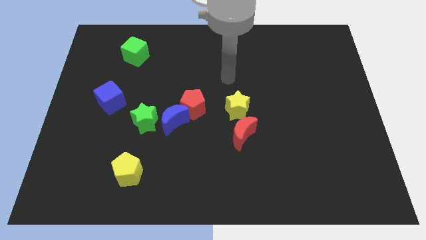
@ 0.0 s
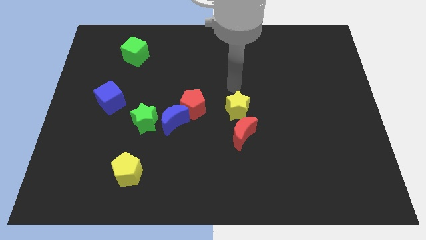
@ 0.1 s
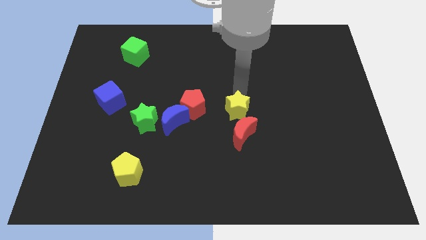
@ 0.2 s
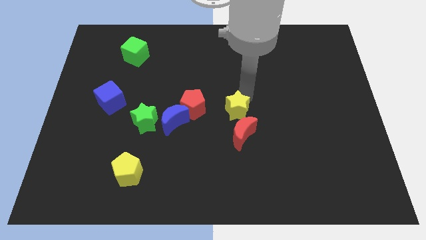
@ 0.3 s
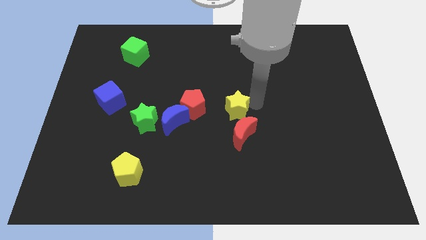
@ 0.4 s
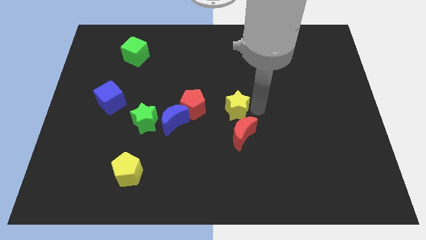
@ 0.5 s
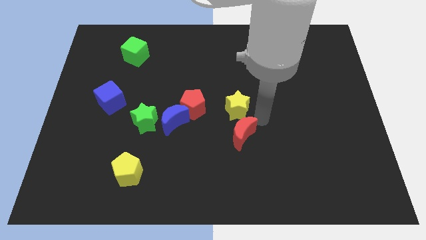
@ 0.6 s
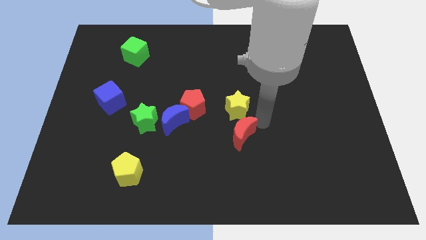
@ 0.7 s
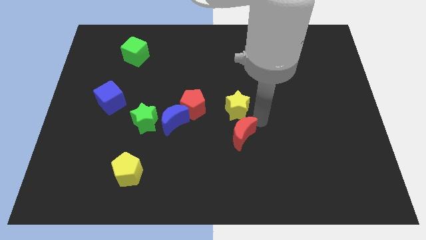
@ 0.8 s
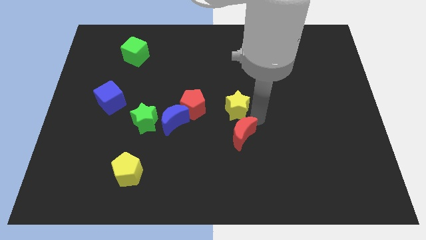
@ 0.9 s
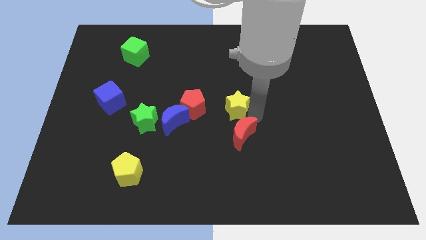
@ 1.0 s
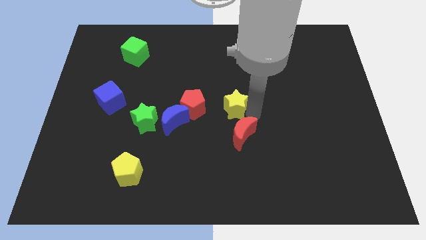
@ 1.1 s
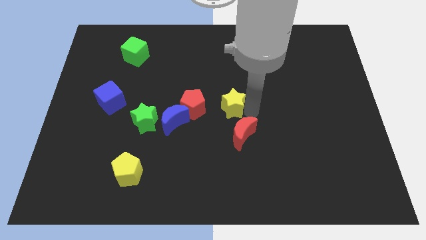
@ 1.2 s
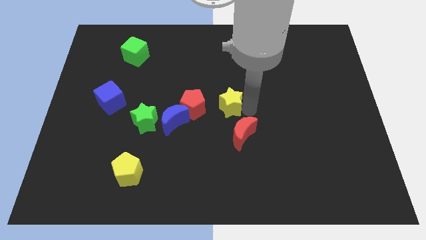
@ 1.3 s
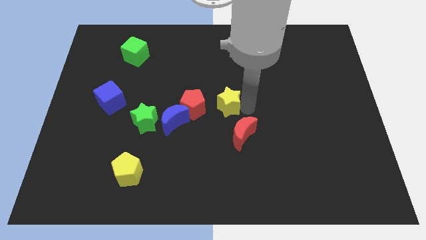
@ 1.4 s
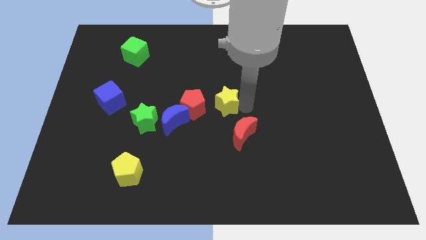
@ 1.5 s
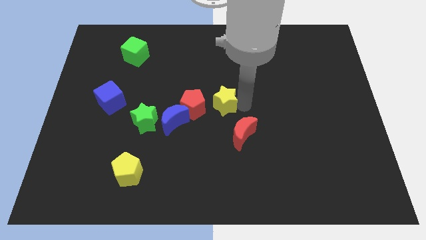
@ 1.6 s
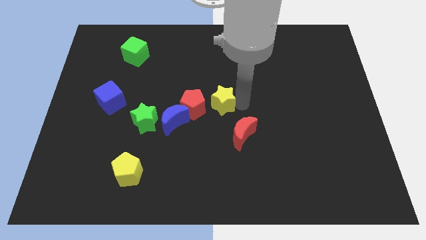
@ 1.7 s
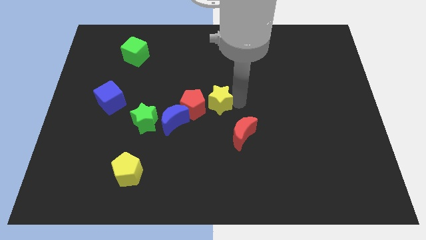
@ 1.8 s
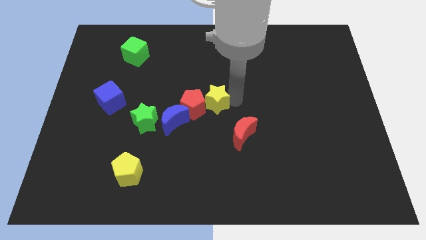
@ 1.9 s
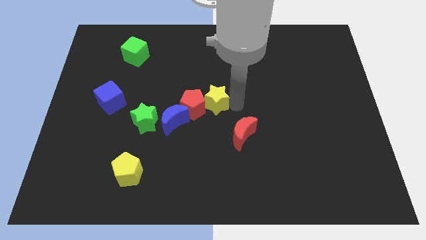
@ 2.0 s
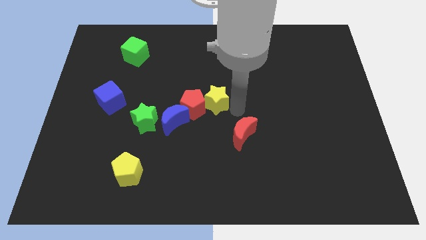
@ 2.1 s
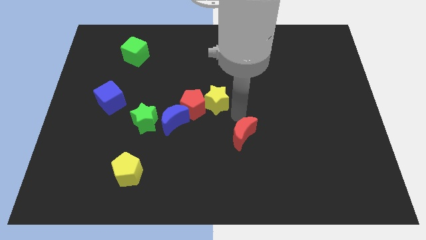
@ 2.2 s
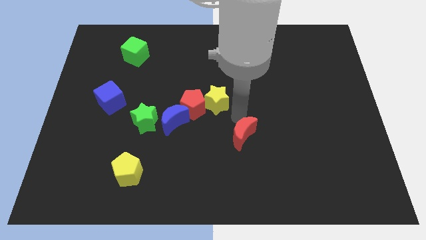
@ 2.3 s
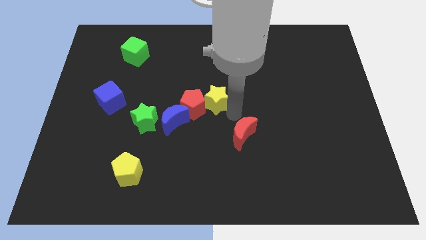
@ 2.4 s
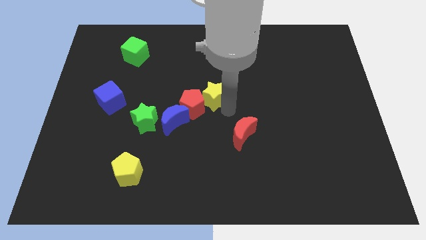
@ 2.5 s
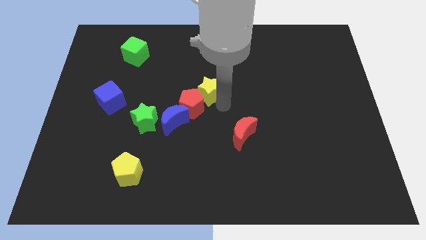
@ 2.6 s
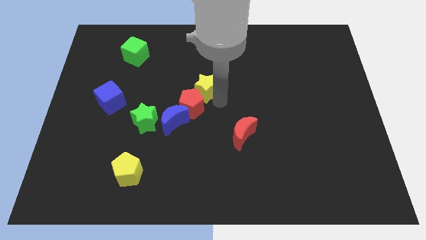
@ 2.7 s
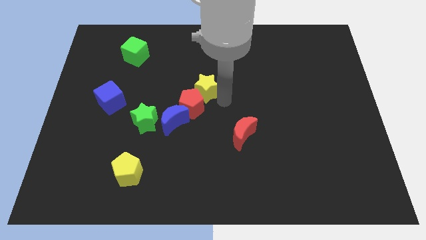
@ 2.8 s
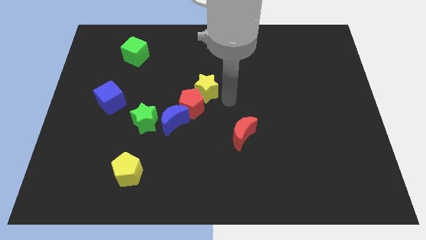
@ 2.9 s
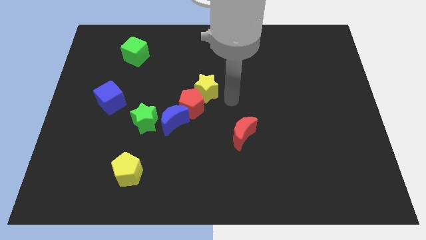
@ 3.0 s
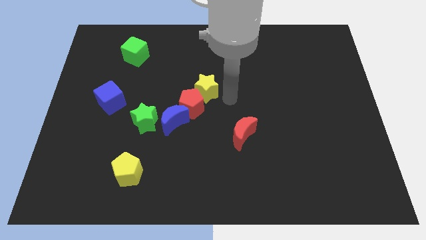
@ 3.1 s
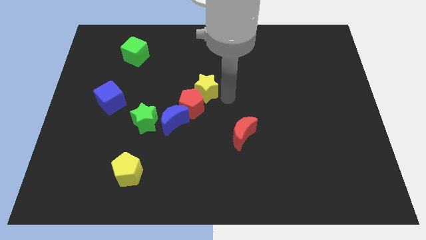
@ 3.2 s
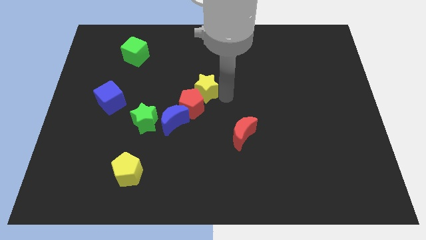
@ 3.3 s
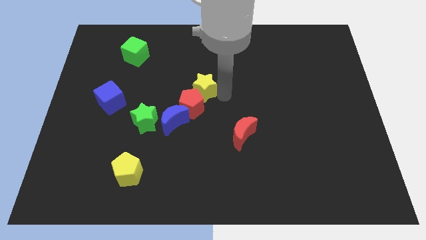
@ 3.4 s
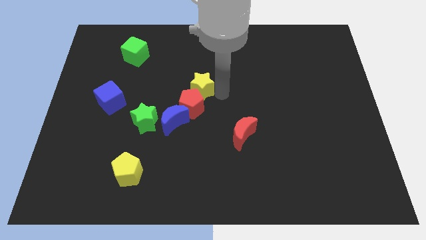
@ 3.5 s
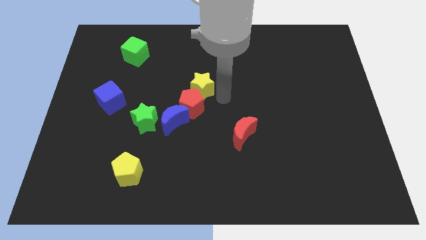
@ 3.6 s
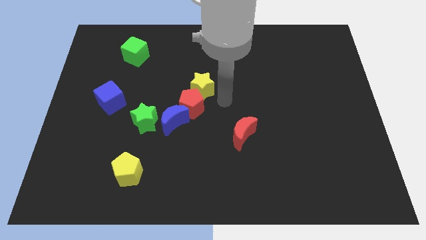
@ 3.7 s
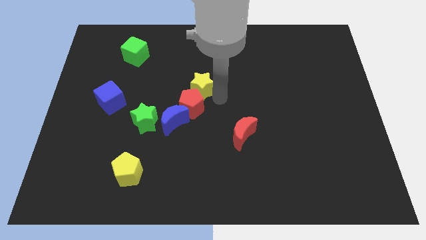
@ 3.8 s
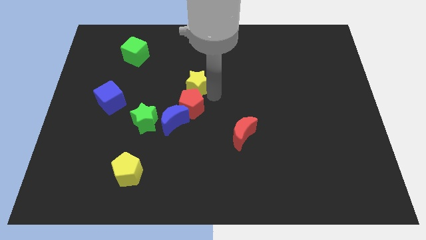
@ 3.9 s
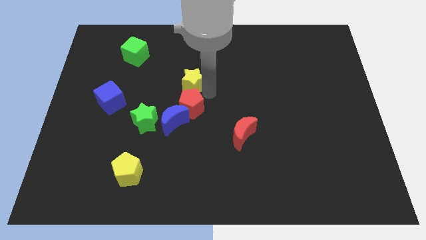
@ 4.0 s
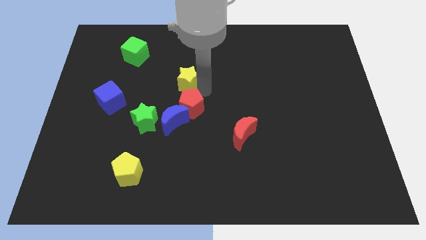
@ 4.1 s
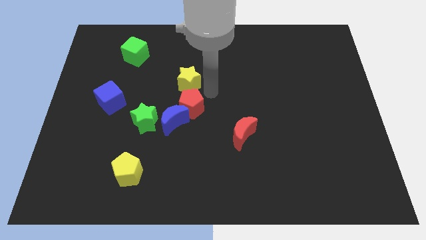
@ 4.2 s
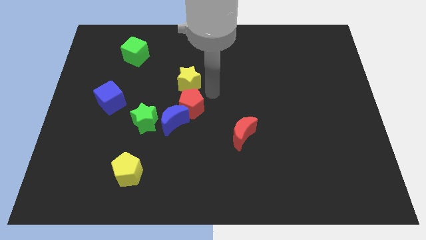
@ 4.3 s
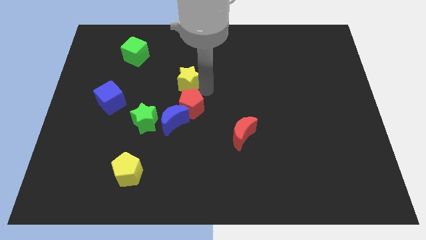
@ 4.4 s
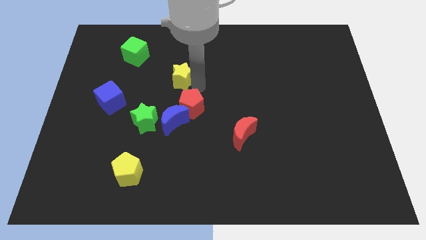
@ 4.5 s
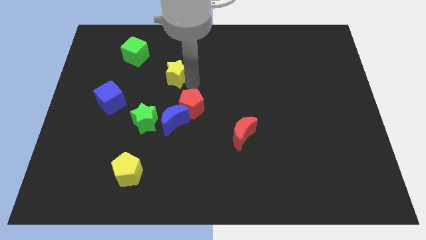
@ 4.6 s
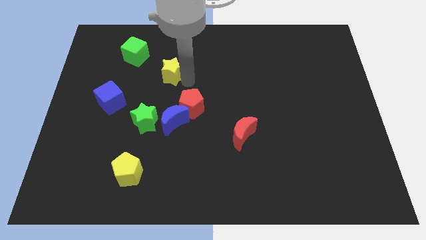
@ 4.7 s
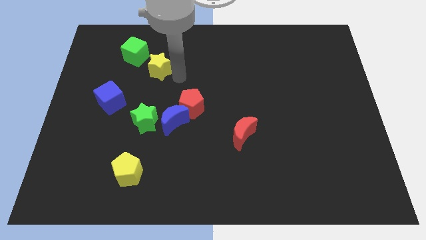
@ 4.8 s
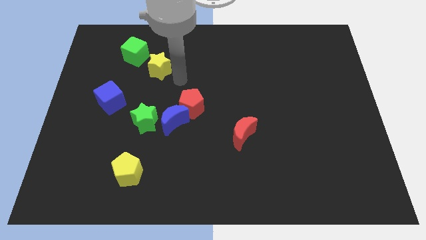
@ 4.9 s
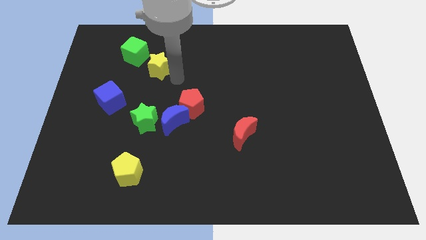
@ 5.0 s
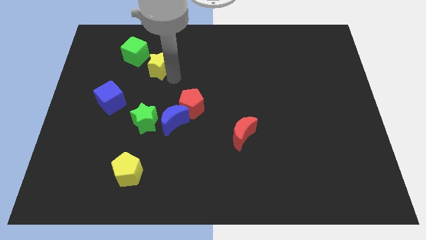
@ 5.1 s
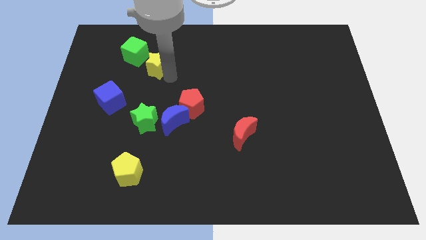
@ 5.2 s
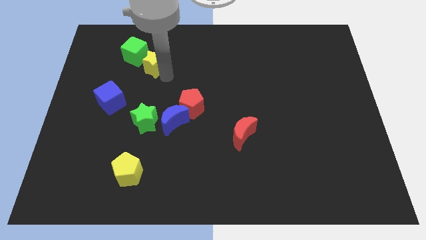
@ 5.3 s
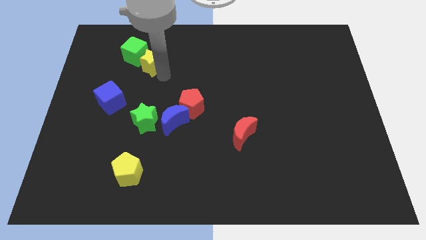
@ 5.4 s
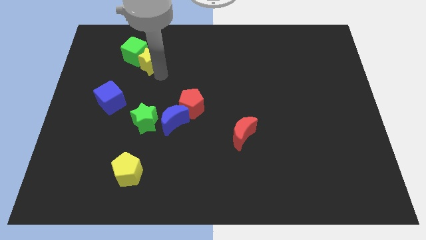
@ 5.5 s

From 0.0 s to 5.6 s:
push the yellow star to the green cube

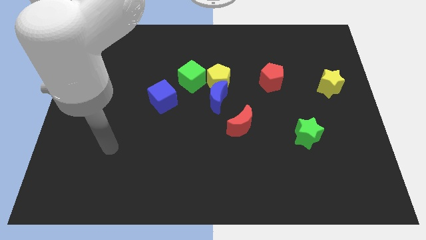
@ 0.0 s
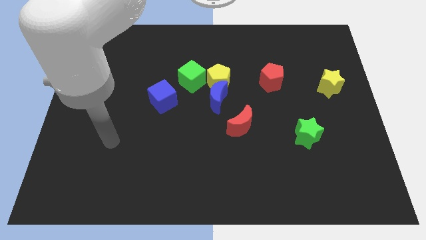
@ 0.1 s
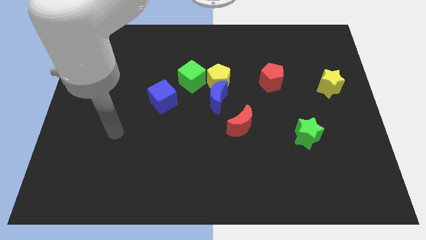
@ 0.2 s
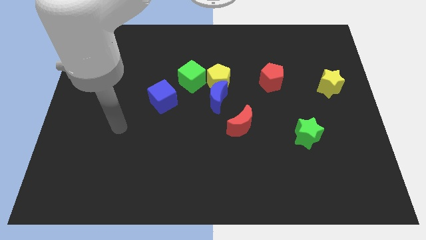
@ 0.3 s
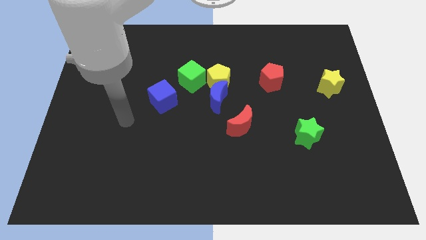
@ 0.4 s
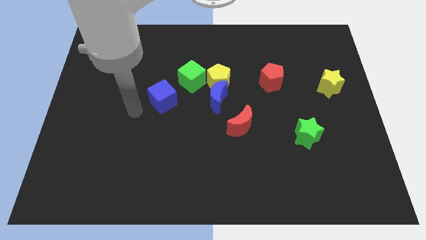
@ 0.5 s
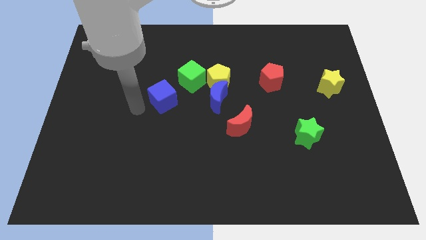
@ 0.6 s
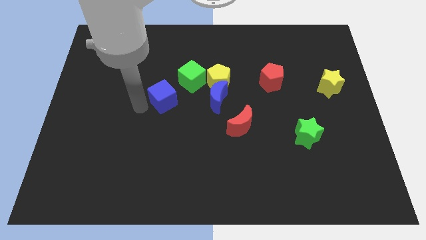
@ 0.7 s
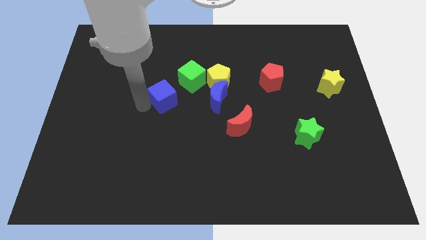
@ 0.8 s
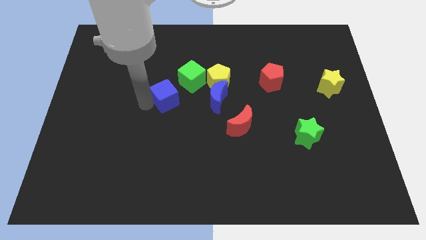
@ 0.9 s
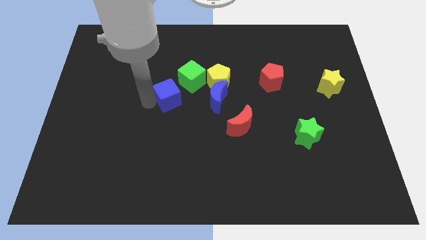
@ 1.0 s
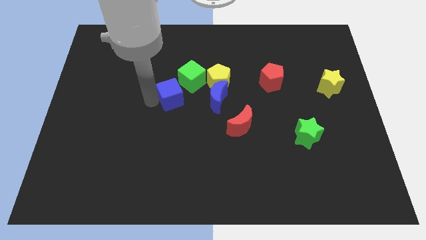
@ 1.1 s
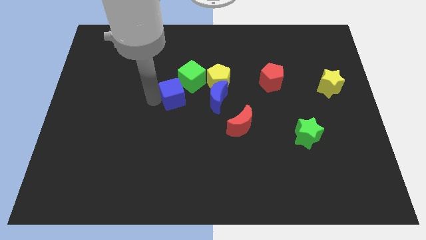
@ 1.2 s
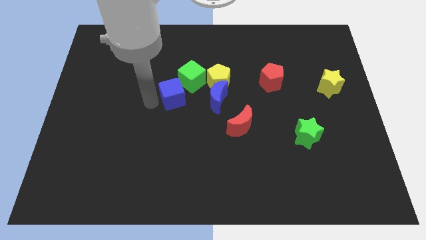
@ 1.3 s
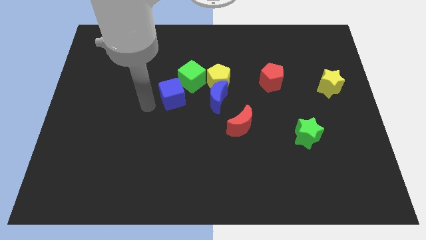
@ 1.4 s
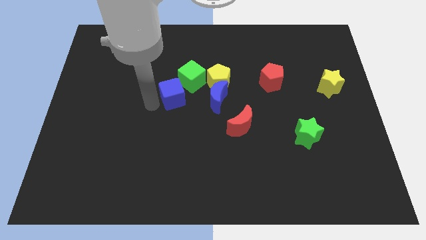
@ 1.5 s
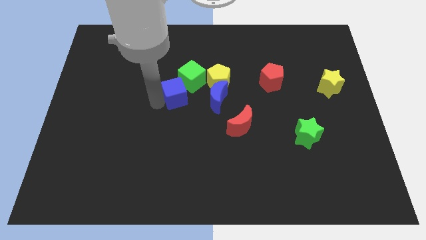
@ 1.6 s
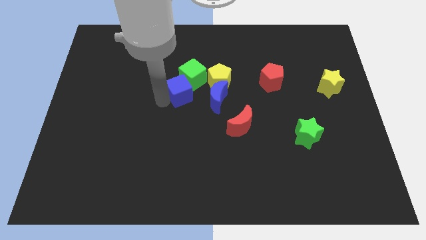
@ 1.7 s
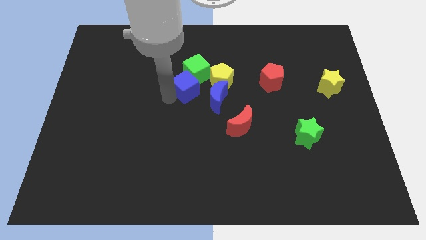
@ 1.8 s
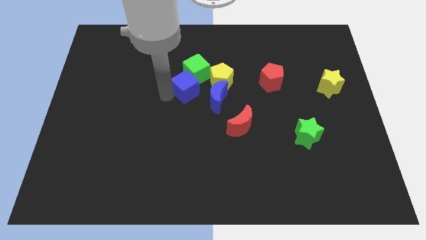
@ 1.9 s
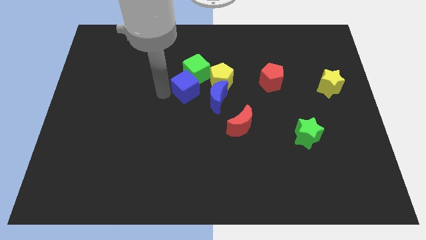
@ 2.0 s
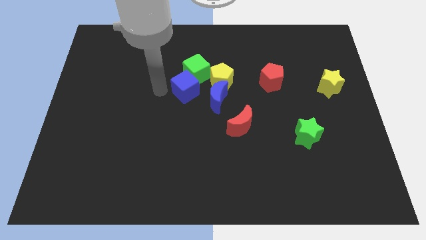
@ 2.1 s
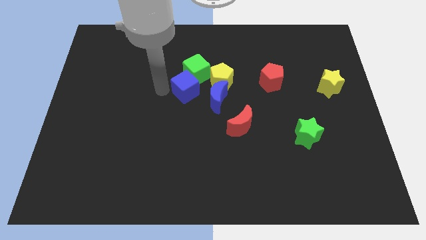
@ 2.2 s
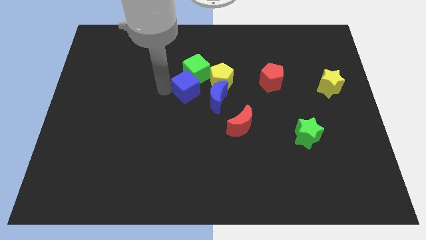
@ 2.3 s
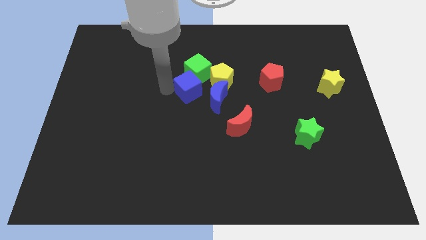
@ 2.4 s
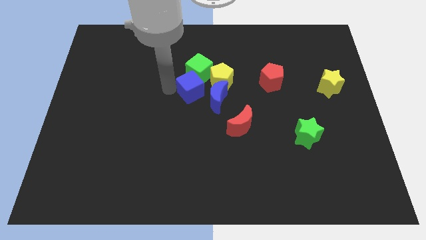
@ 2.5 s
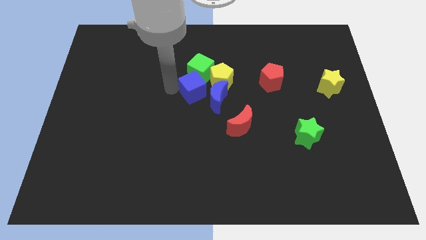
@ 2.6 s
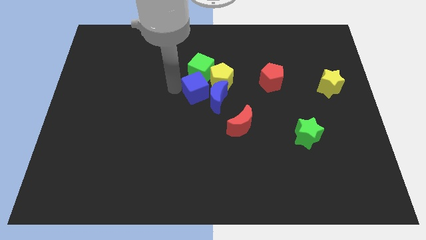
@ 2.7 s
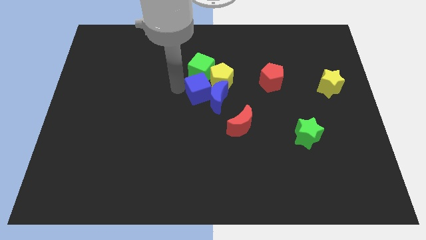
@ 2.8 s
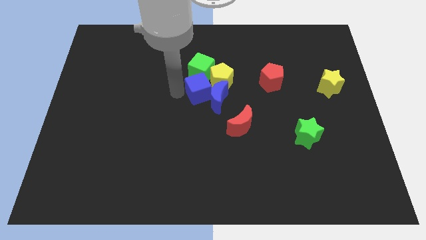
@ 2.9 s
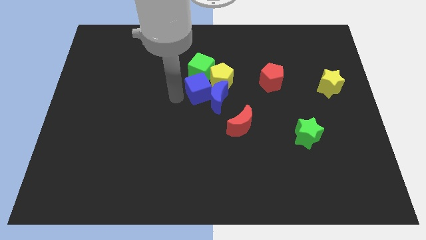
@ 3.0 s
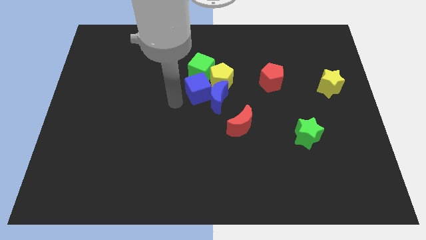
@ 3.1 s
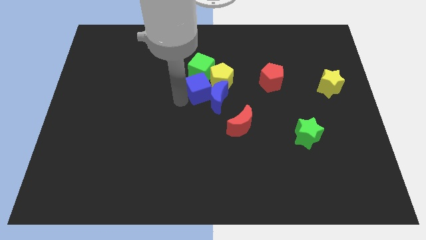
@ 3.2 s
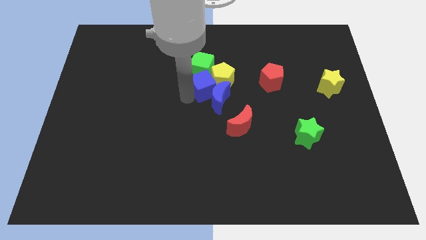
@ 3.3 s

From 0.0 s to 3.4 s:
put the blue cube close to the yellow pentagon
